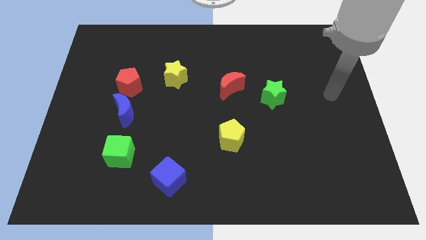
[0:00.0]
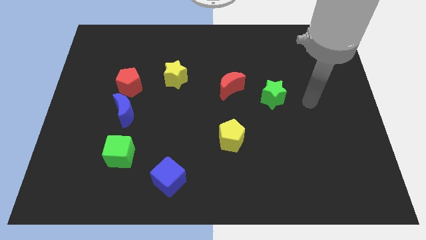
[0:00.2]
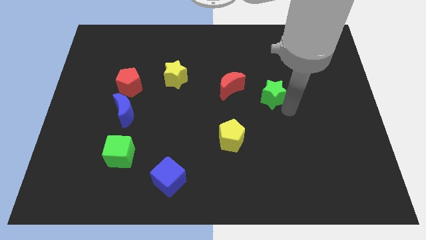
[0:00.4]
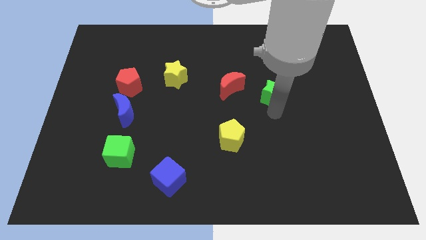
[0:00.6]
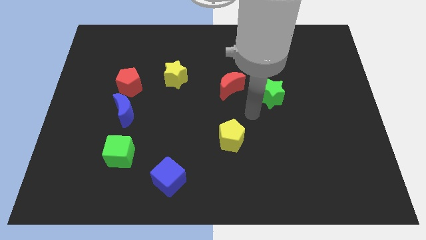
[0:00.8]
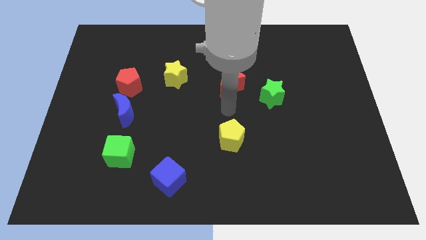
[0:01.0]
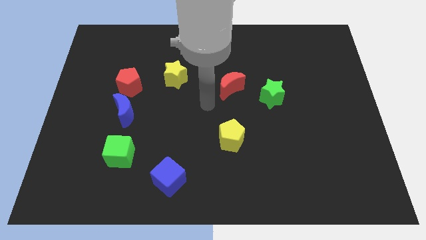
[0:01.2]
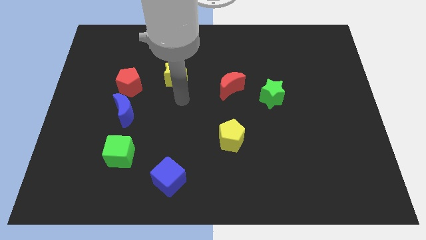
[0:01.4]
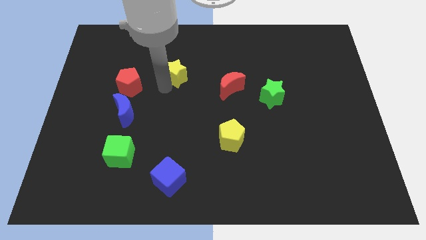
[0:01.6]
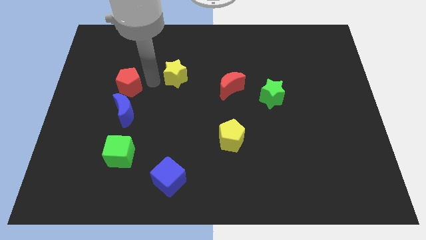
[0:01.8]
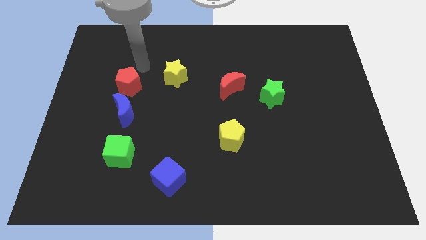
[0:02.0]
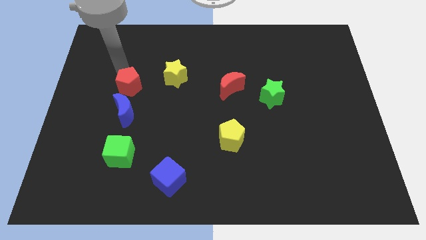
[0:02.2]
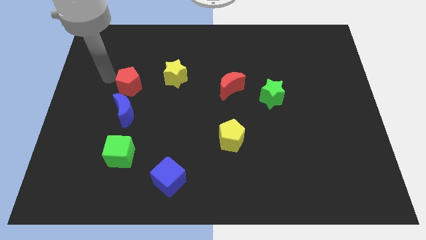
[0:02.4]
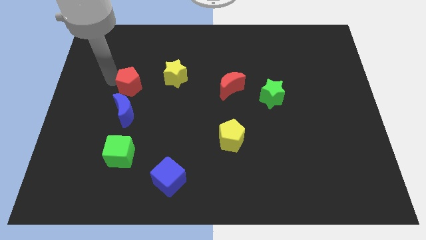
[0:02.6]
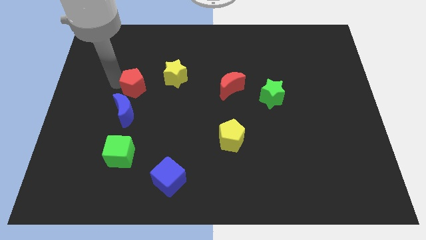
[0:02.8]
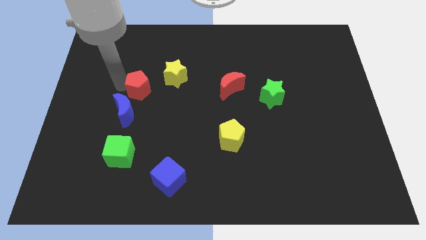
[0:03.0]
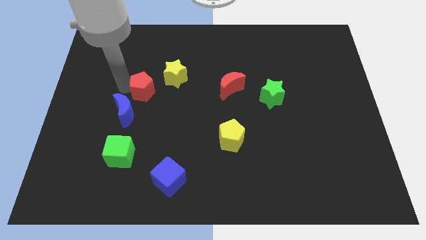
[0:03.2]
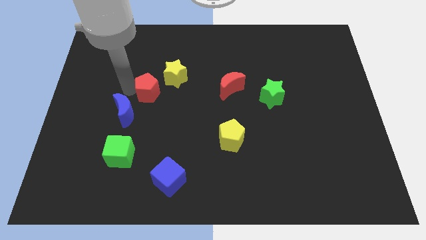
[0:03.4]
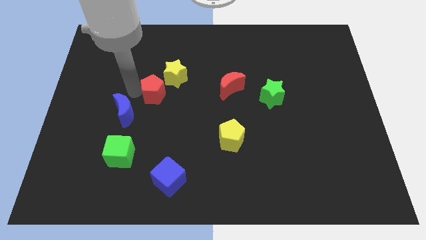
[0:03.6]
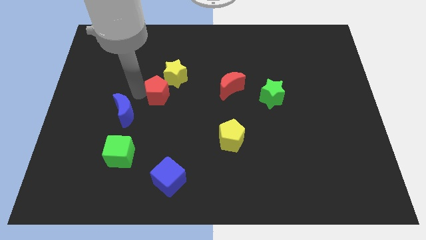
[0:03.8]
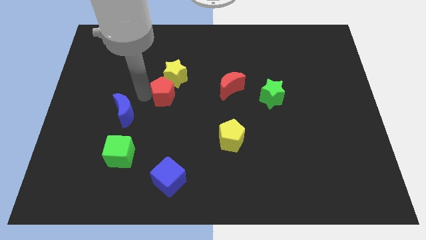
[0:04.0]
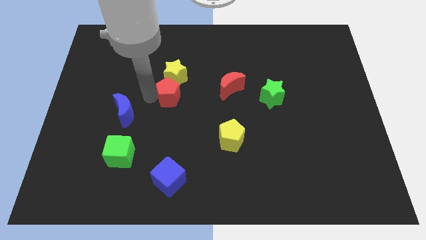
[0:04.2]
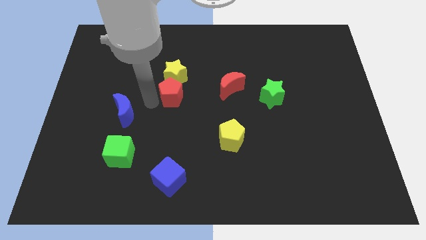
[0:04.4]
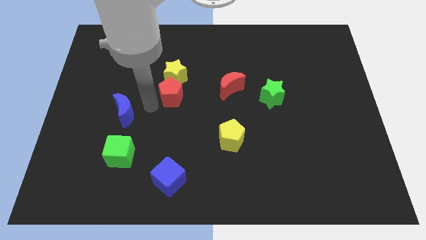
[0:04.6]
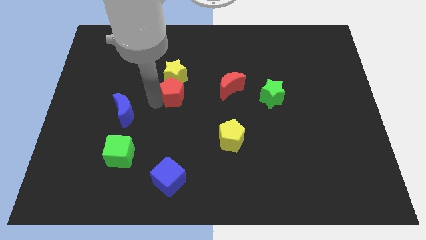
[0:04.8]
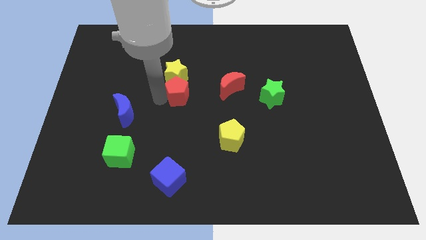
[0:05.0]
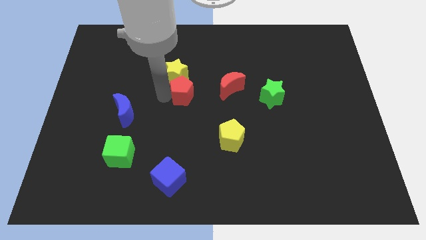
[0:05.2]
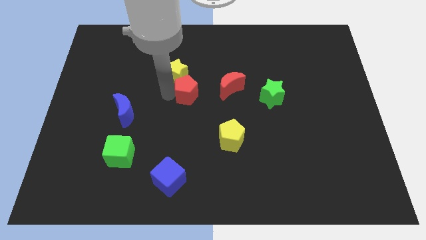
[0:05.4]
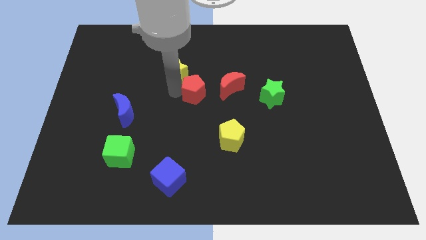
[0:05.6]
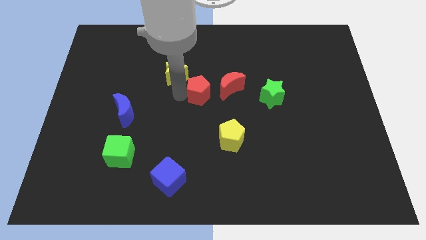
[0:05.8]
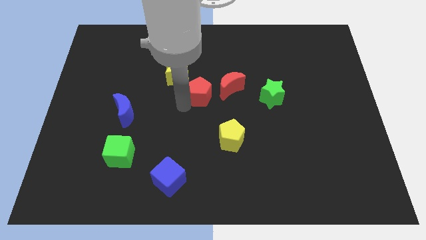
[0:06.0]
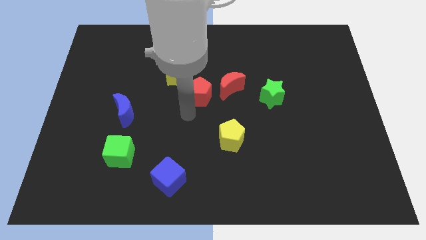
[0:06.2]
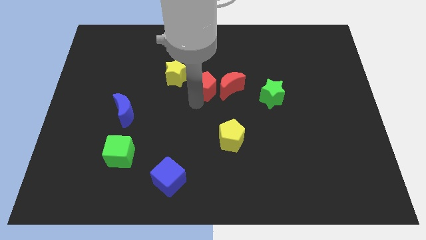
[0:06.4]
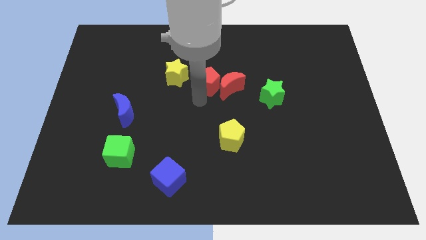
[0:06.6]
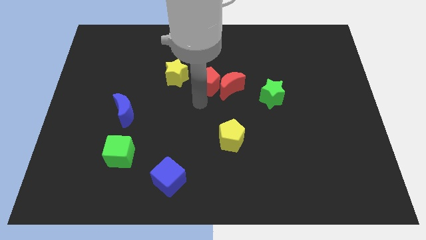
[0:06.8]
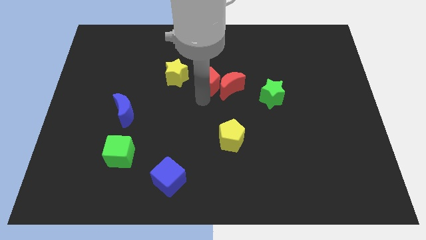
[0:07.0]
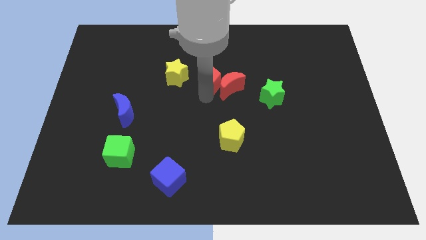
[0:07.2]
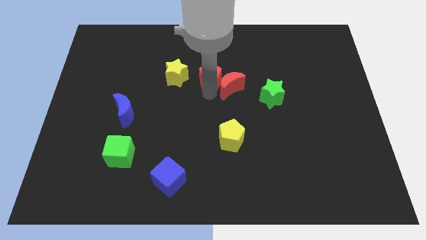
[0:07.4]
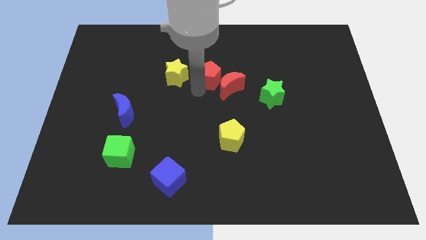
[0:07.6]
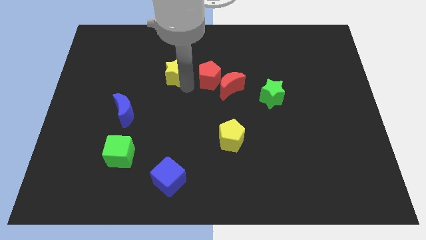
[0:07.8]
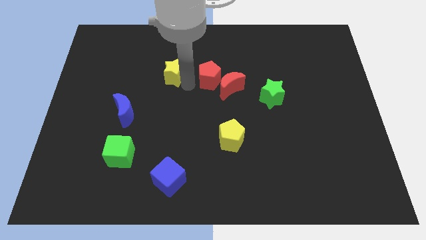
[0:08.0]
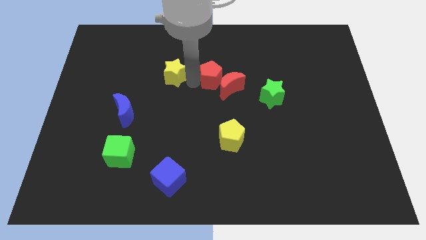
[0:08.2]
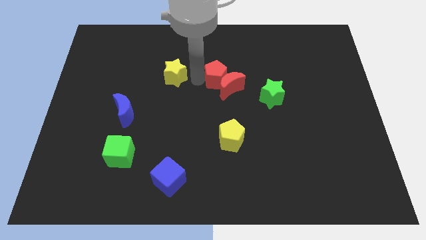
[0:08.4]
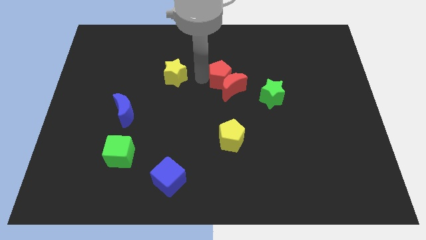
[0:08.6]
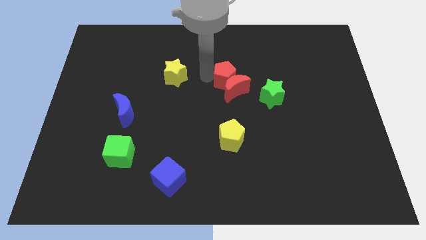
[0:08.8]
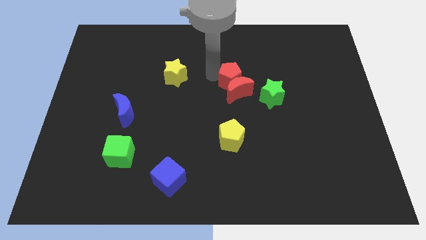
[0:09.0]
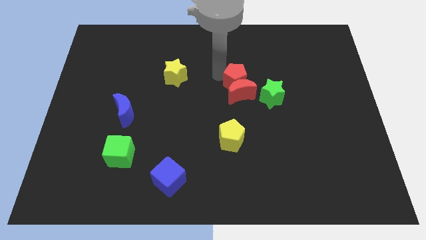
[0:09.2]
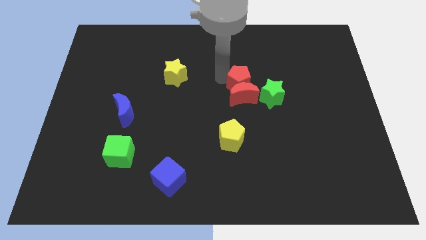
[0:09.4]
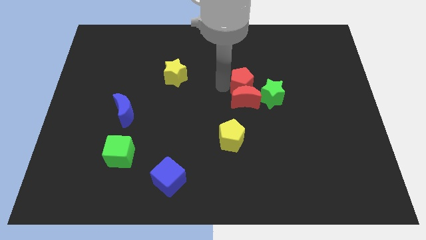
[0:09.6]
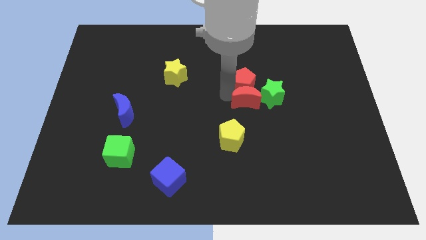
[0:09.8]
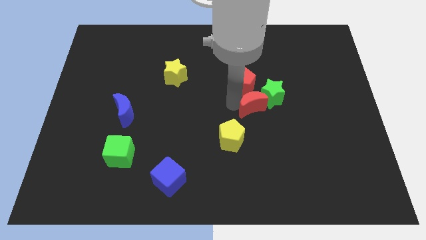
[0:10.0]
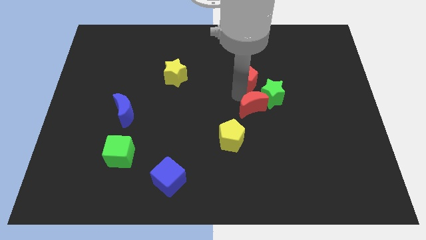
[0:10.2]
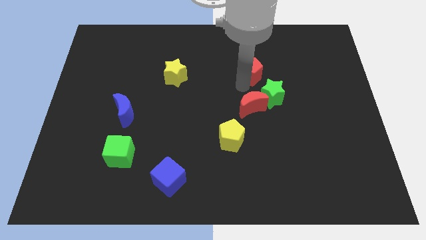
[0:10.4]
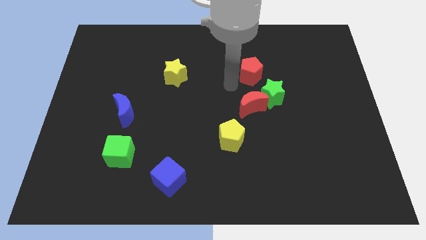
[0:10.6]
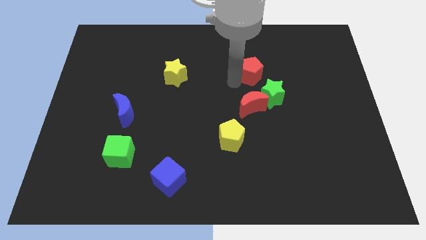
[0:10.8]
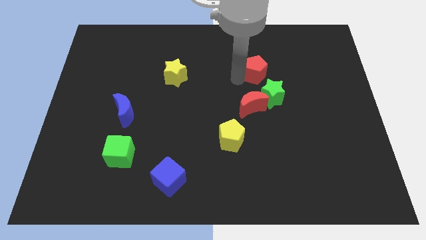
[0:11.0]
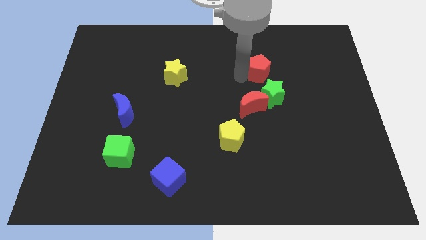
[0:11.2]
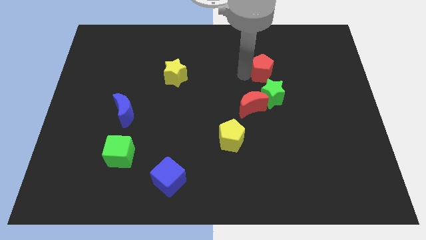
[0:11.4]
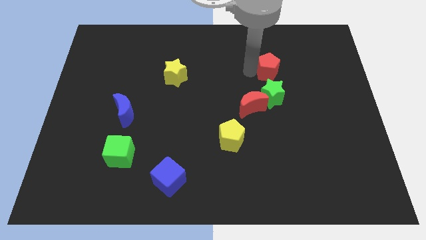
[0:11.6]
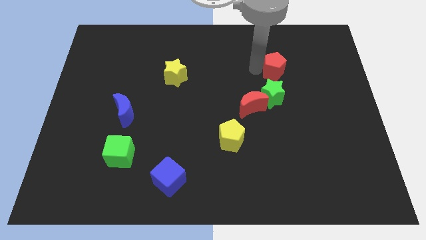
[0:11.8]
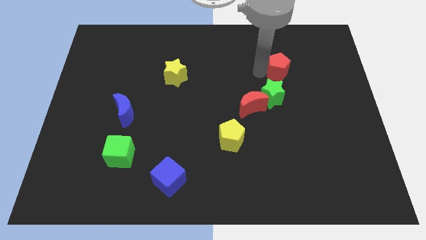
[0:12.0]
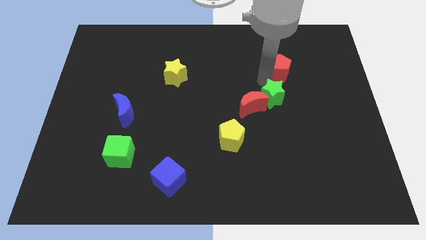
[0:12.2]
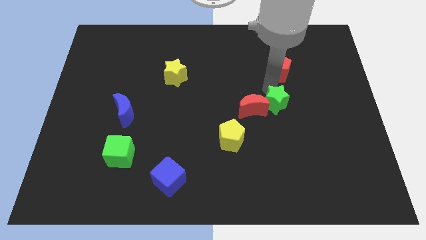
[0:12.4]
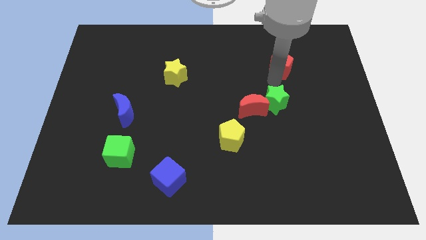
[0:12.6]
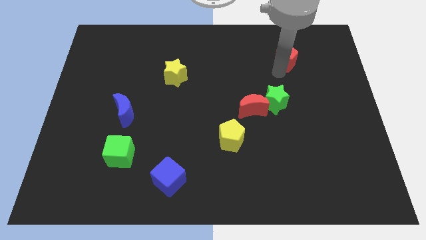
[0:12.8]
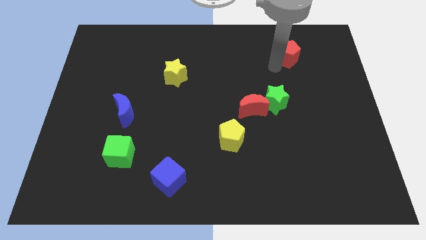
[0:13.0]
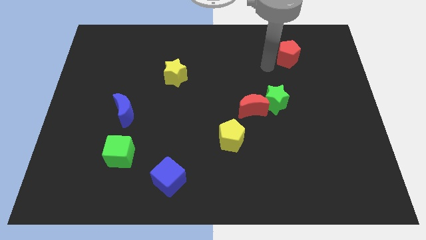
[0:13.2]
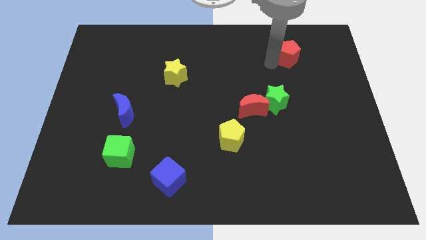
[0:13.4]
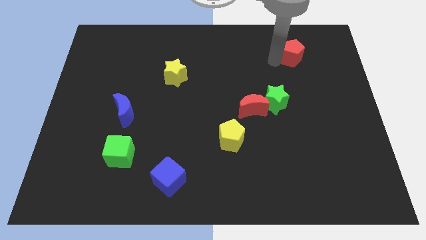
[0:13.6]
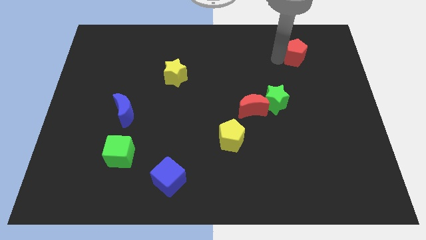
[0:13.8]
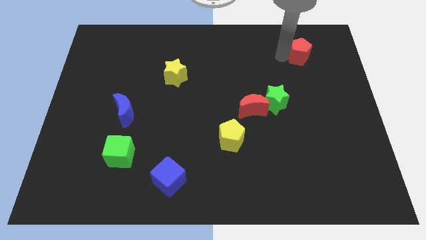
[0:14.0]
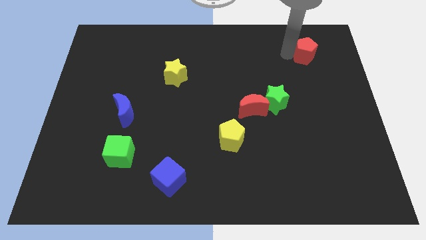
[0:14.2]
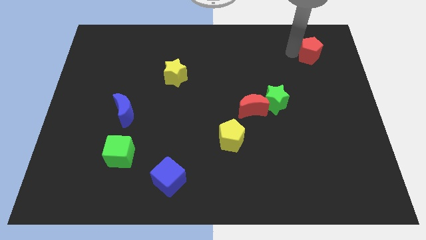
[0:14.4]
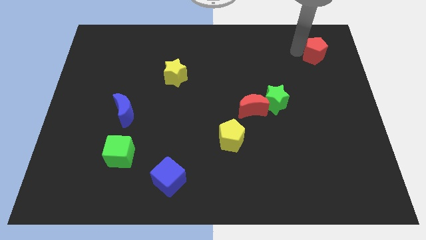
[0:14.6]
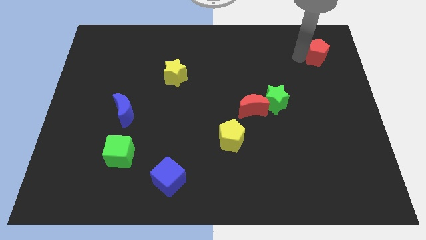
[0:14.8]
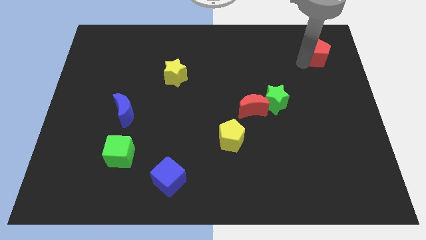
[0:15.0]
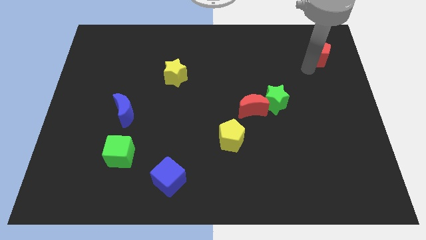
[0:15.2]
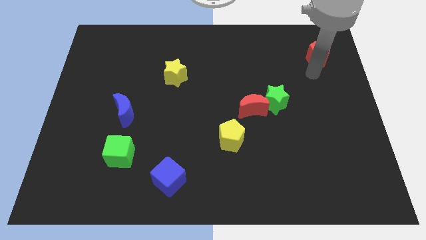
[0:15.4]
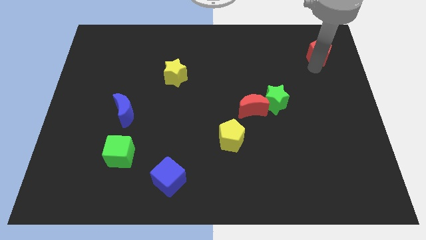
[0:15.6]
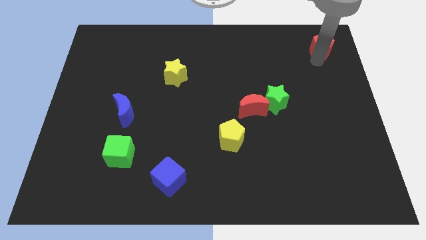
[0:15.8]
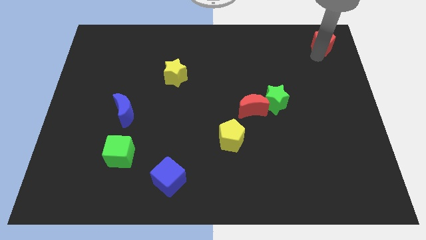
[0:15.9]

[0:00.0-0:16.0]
put the red pentagon to the top right corner
